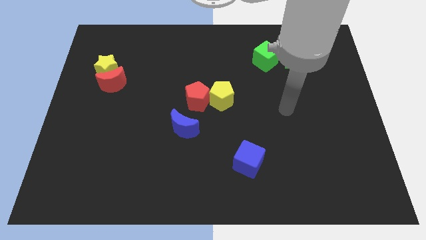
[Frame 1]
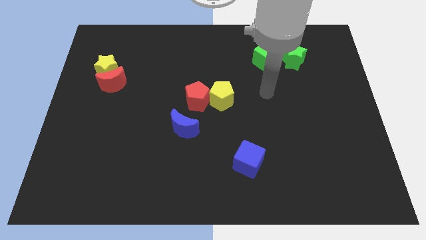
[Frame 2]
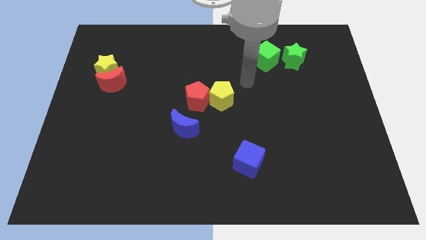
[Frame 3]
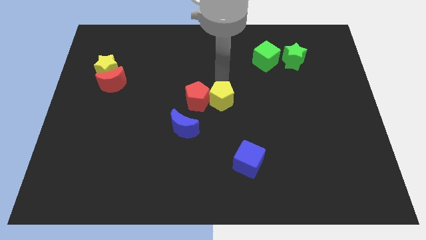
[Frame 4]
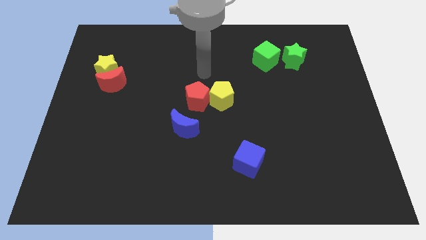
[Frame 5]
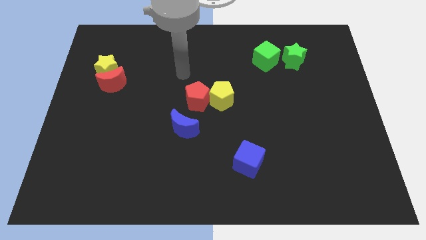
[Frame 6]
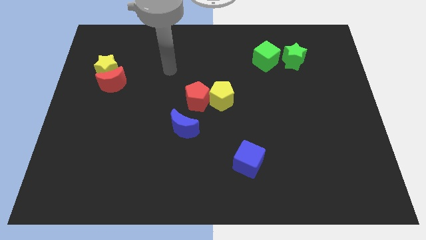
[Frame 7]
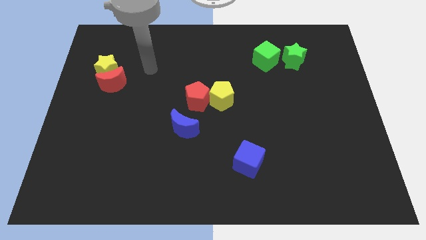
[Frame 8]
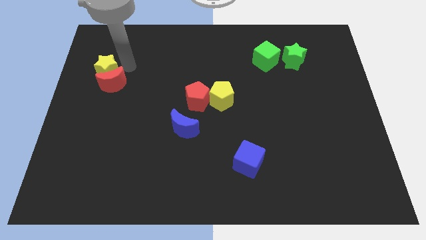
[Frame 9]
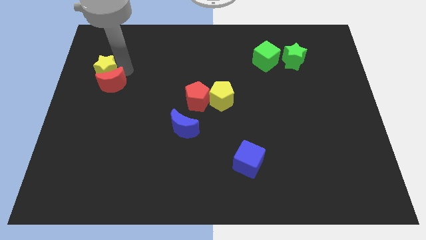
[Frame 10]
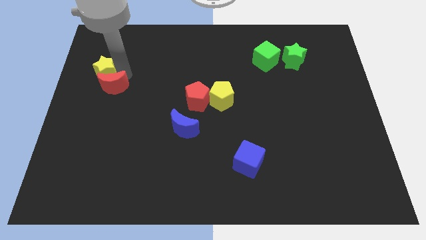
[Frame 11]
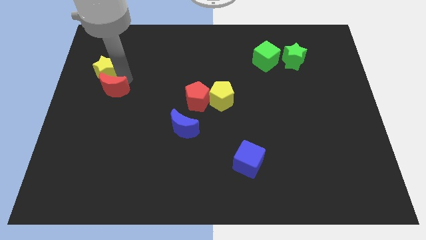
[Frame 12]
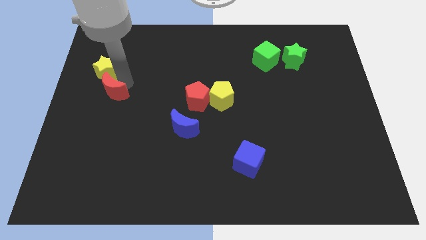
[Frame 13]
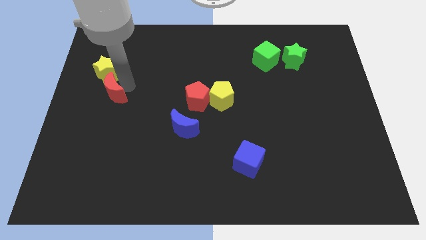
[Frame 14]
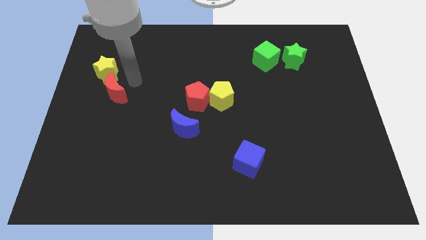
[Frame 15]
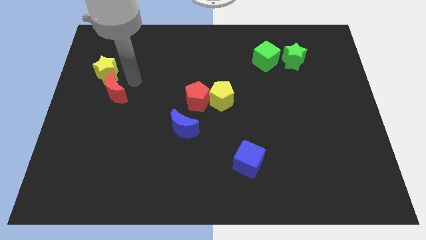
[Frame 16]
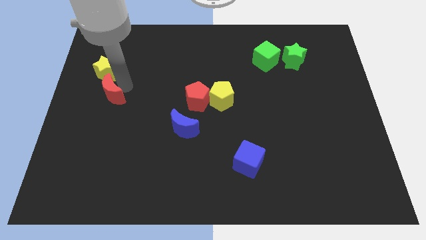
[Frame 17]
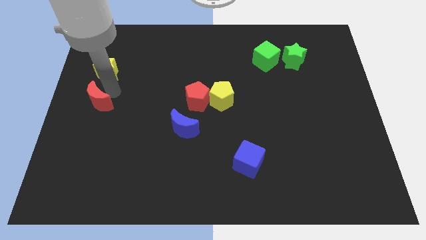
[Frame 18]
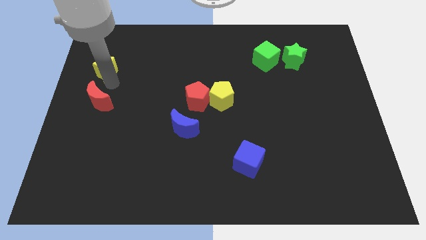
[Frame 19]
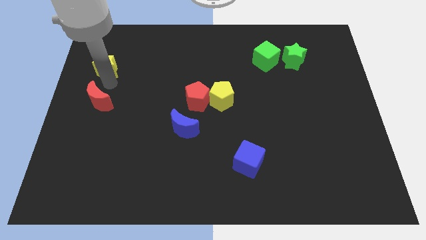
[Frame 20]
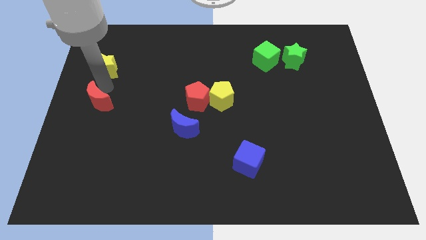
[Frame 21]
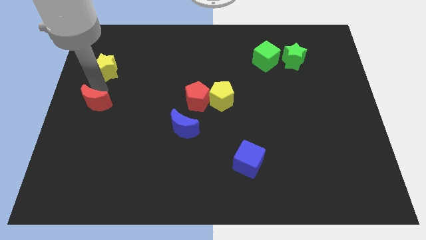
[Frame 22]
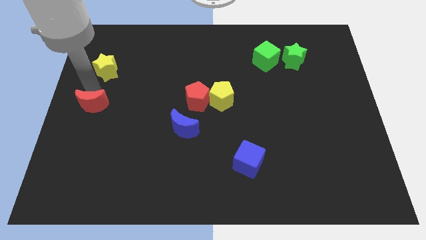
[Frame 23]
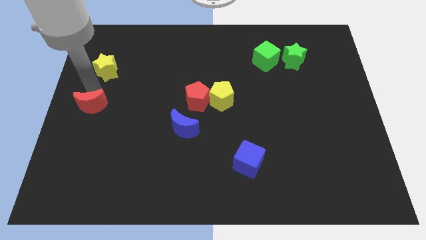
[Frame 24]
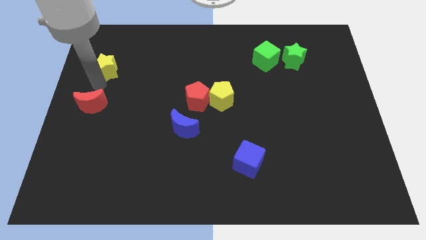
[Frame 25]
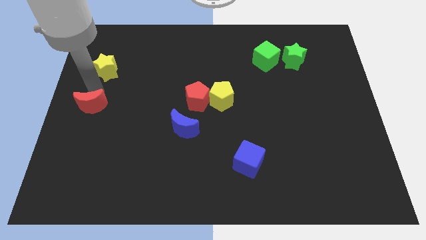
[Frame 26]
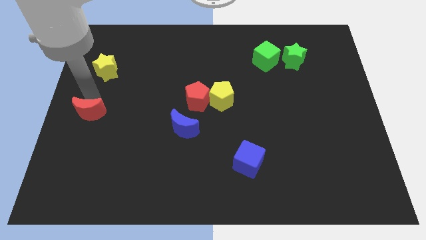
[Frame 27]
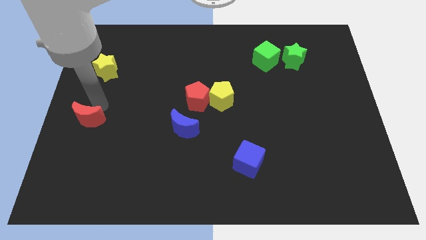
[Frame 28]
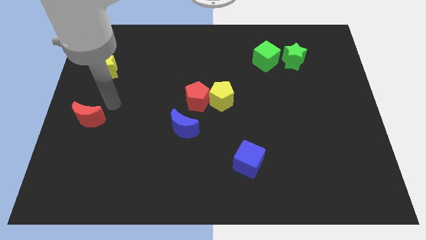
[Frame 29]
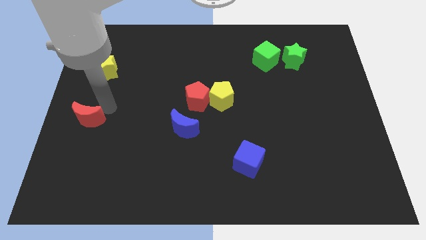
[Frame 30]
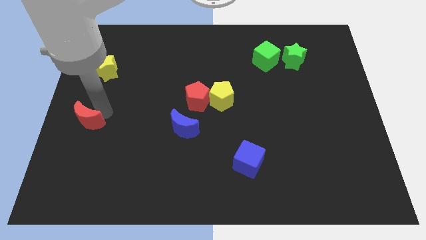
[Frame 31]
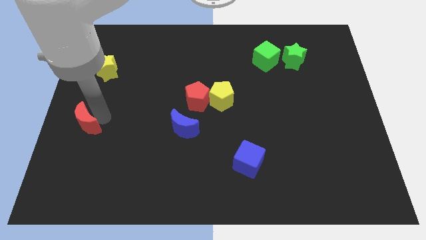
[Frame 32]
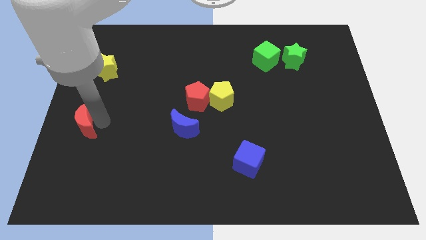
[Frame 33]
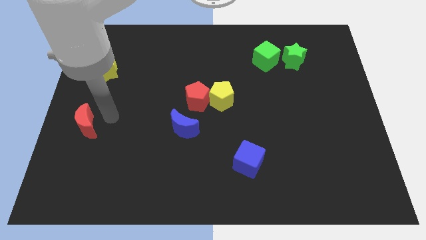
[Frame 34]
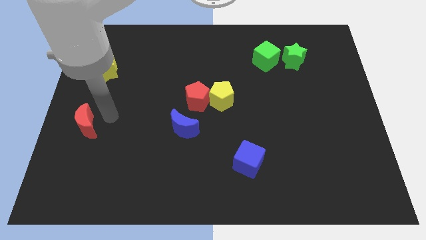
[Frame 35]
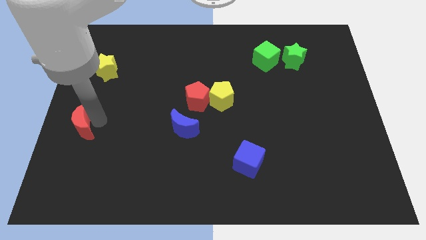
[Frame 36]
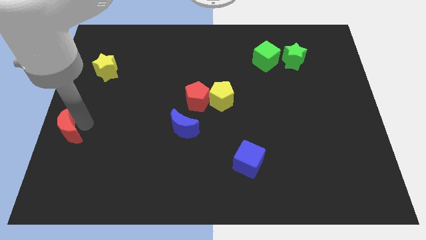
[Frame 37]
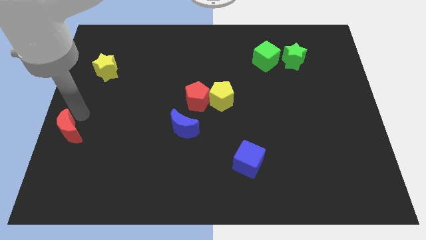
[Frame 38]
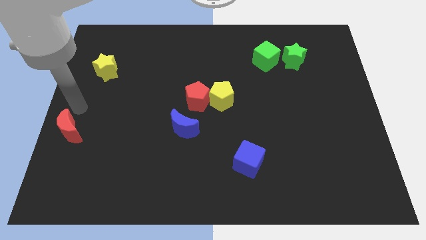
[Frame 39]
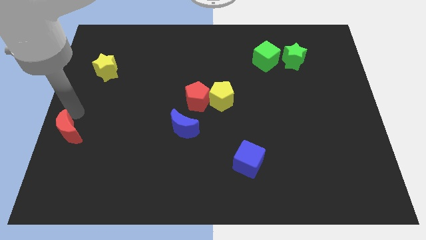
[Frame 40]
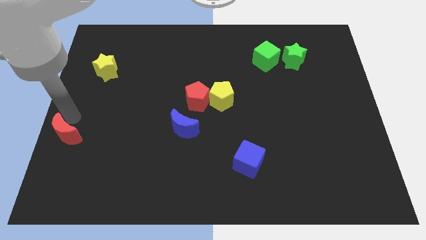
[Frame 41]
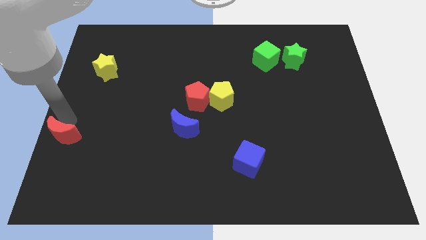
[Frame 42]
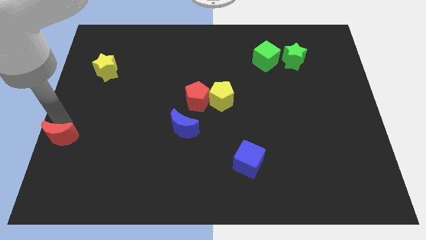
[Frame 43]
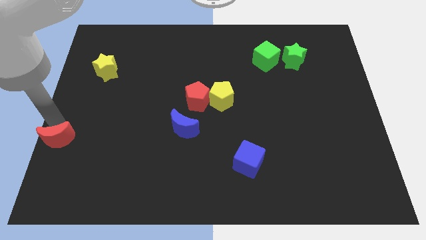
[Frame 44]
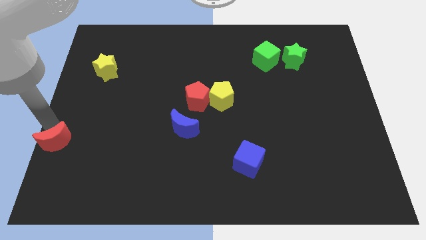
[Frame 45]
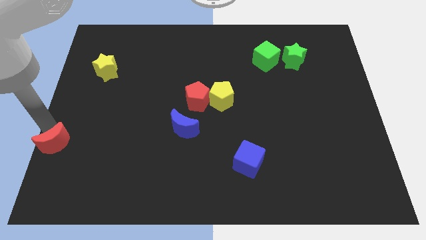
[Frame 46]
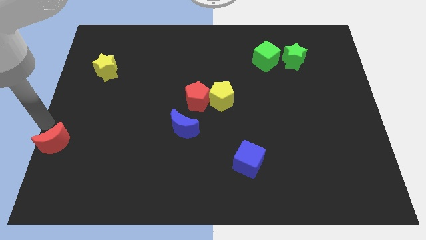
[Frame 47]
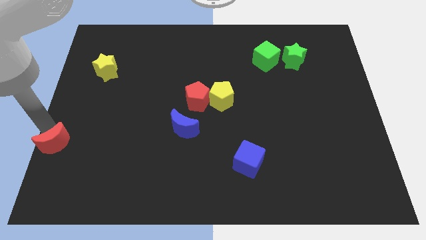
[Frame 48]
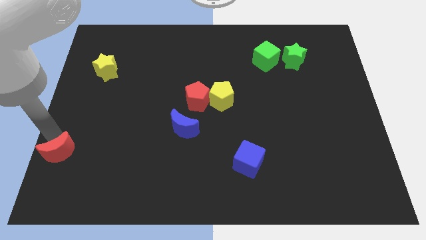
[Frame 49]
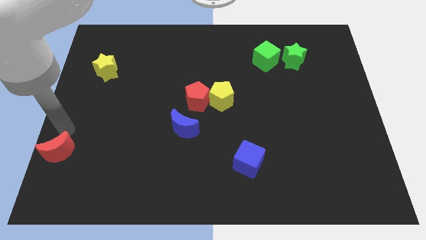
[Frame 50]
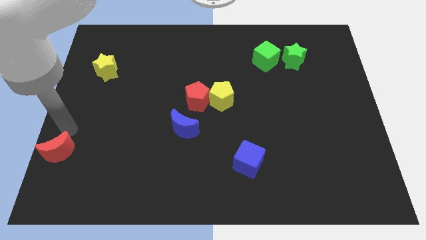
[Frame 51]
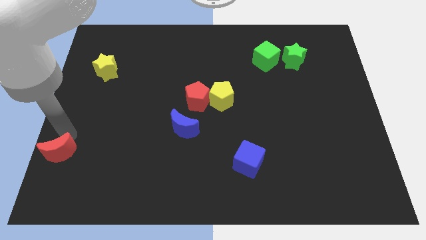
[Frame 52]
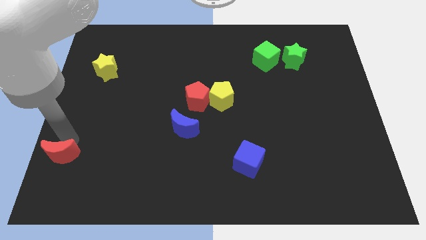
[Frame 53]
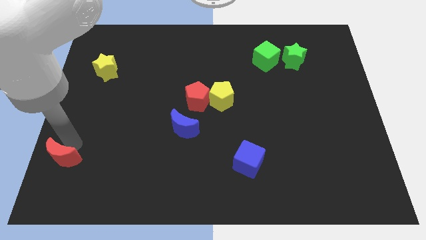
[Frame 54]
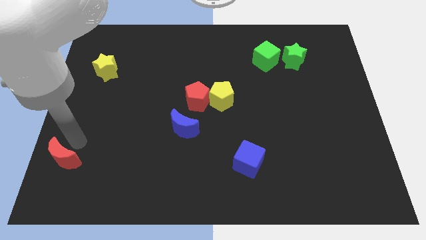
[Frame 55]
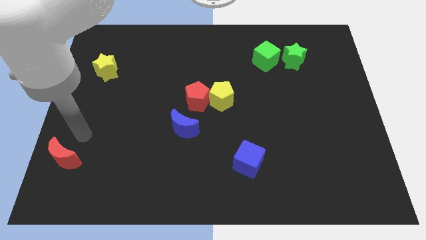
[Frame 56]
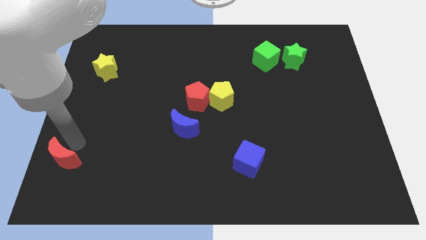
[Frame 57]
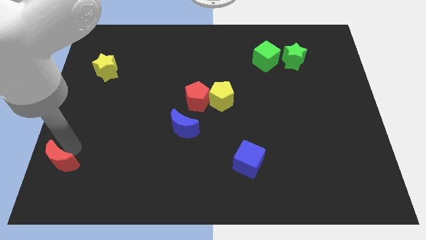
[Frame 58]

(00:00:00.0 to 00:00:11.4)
move the red moon to the bottom left corner
